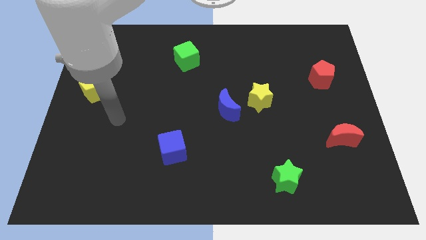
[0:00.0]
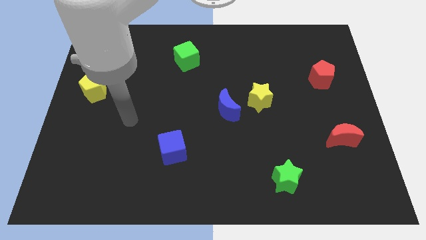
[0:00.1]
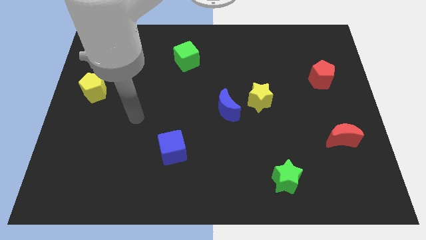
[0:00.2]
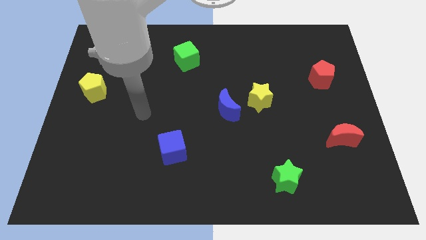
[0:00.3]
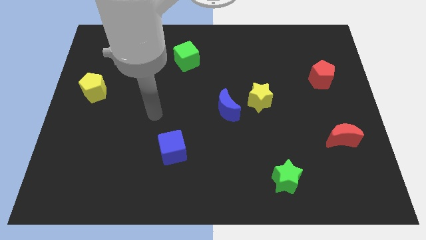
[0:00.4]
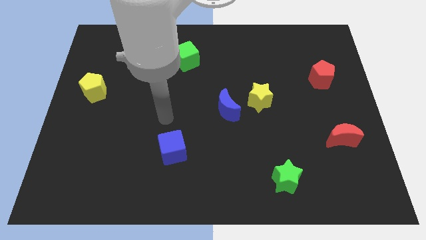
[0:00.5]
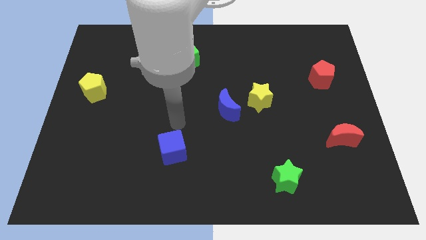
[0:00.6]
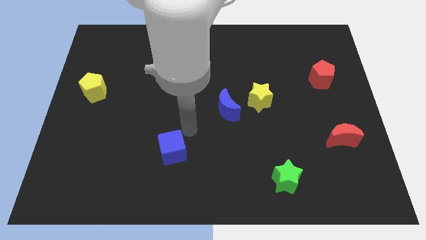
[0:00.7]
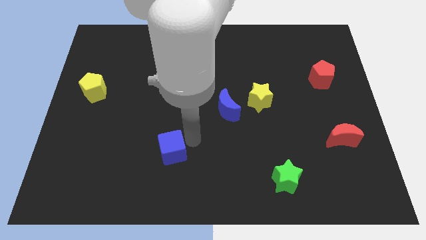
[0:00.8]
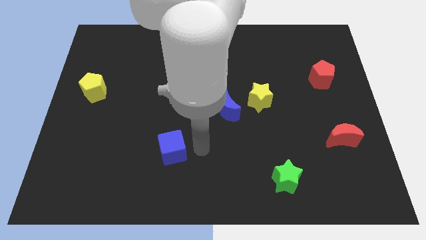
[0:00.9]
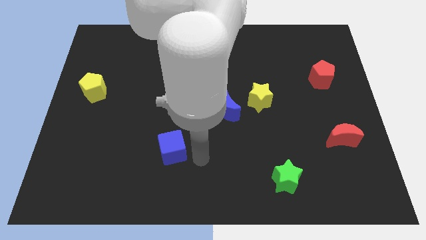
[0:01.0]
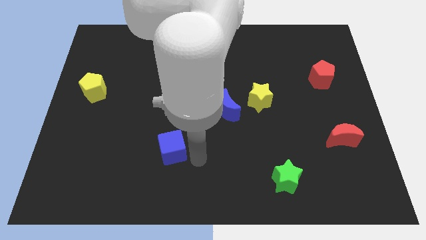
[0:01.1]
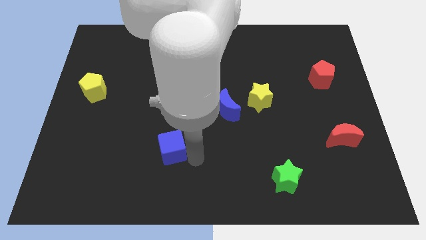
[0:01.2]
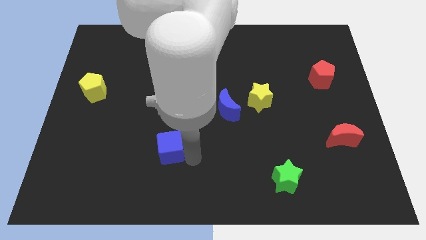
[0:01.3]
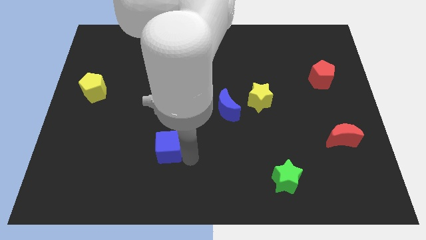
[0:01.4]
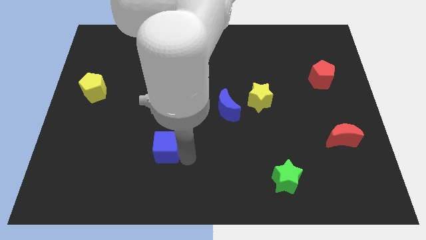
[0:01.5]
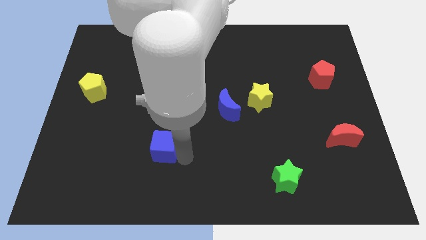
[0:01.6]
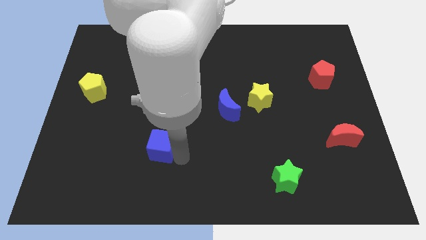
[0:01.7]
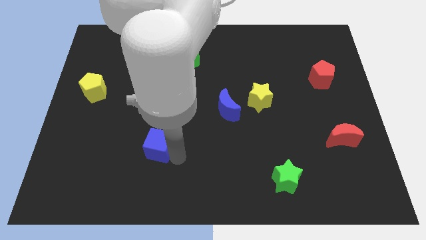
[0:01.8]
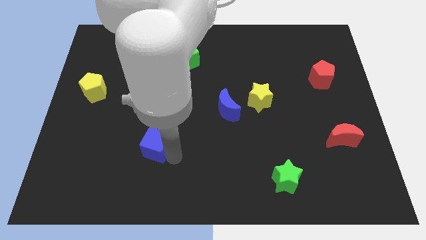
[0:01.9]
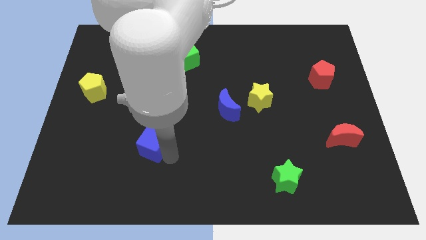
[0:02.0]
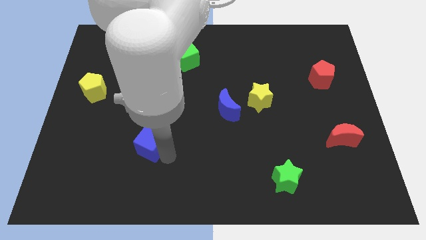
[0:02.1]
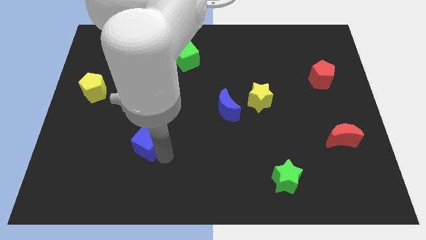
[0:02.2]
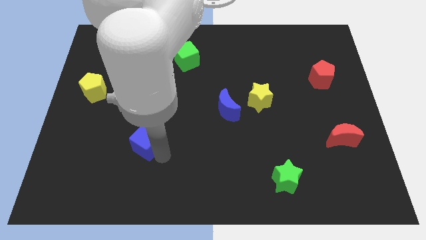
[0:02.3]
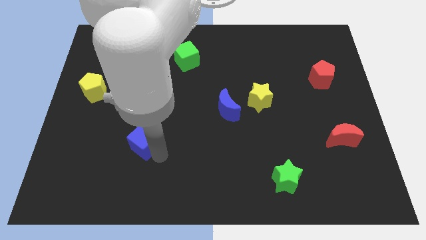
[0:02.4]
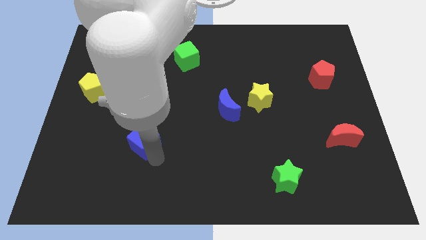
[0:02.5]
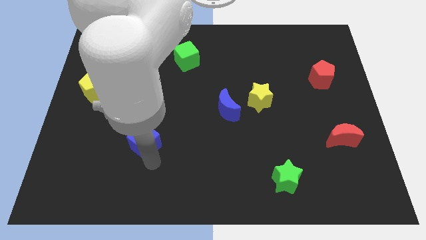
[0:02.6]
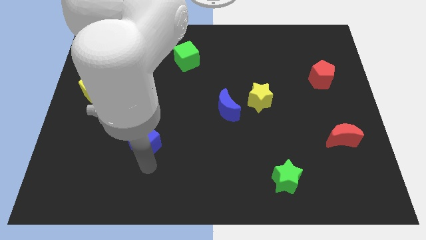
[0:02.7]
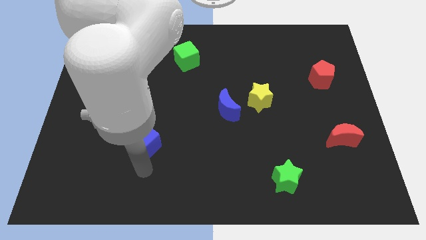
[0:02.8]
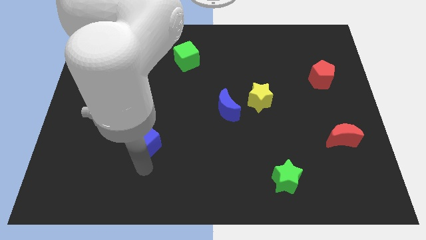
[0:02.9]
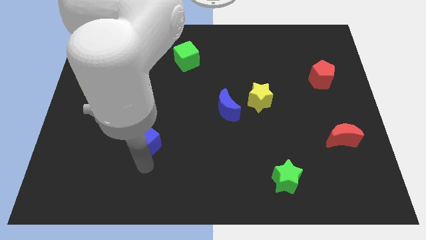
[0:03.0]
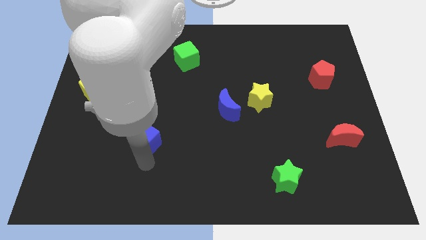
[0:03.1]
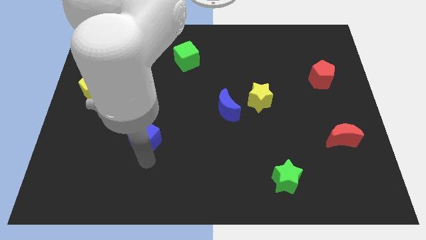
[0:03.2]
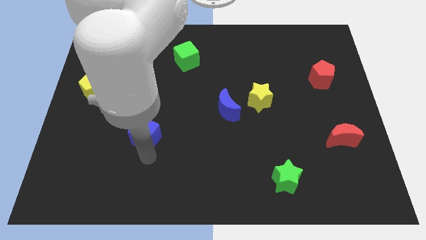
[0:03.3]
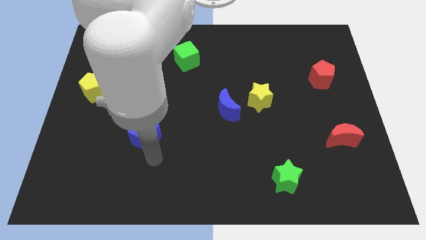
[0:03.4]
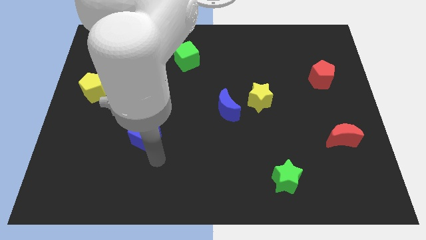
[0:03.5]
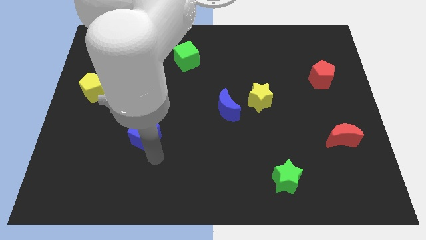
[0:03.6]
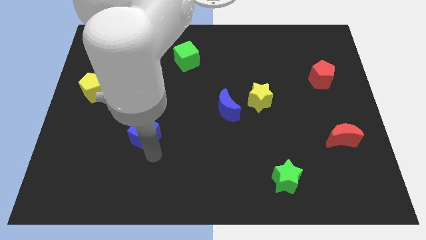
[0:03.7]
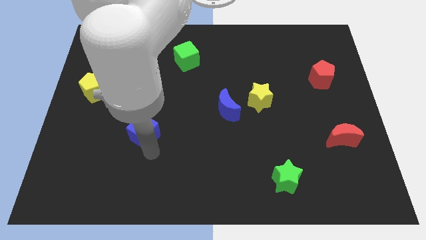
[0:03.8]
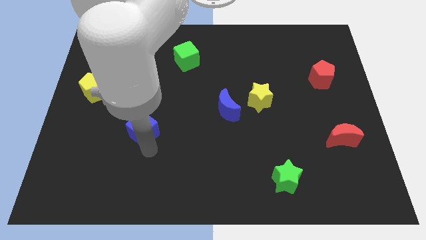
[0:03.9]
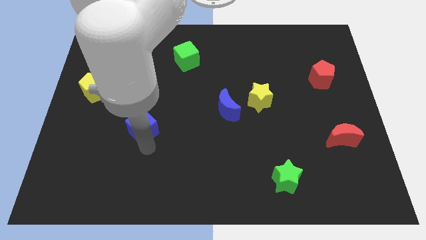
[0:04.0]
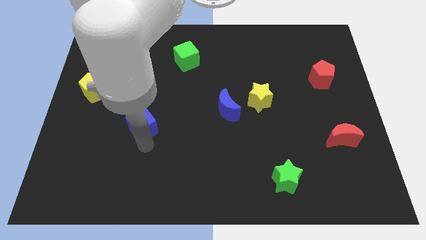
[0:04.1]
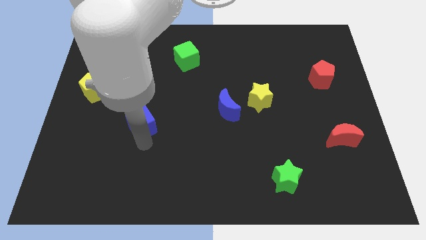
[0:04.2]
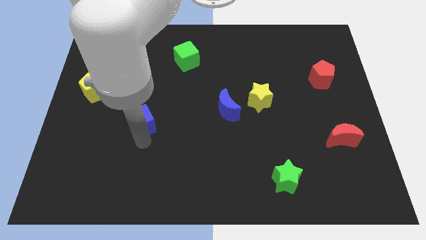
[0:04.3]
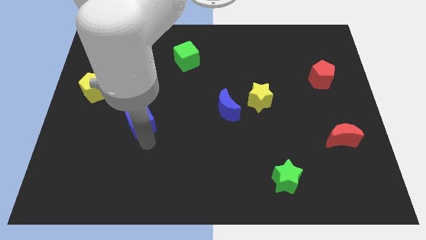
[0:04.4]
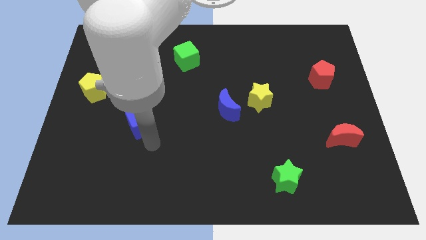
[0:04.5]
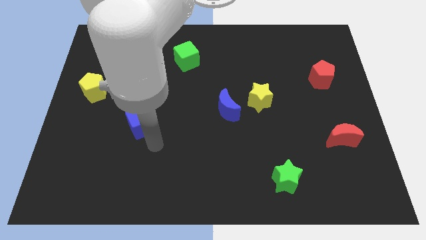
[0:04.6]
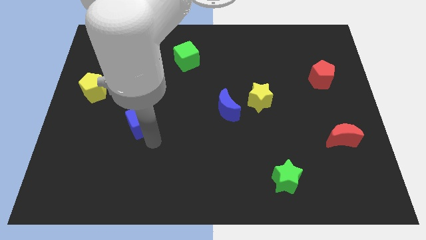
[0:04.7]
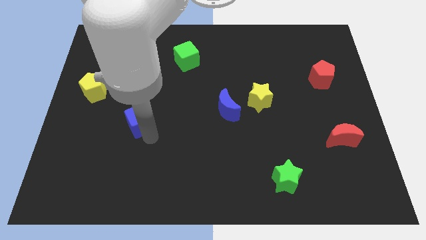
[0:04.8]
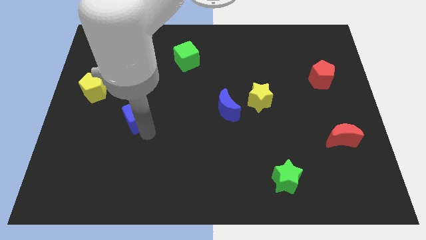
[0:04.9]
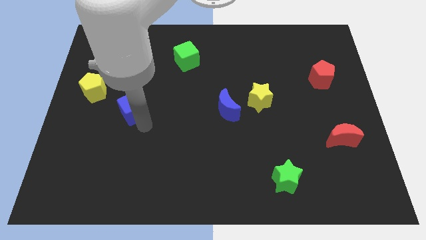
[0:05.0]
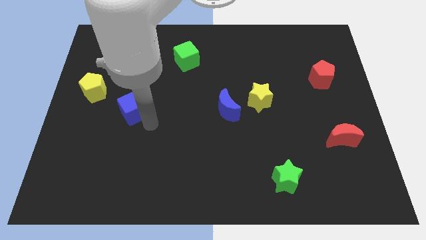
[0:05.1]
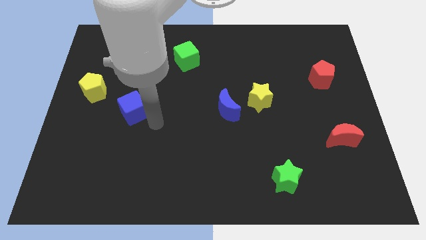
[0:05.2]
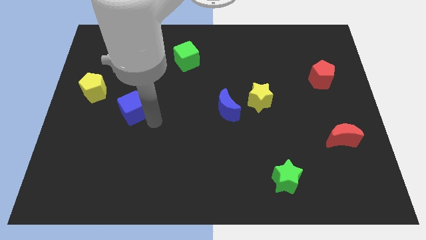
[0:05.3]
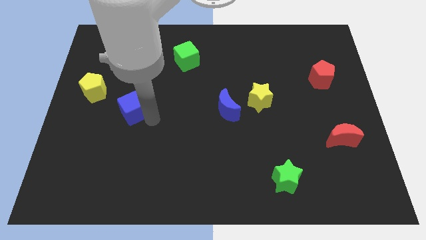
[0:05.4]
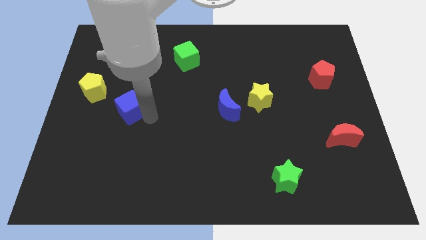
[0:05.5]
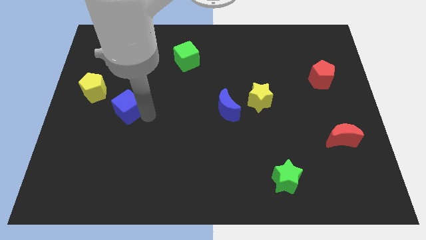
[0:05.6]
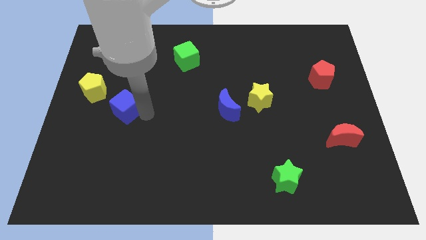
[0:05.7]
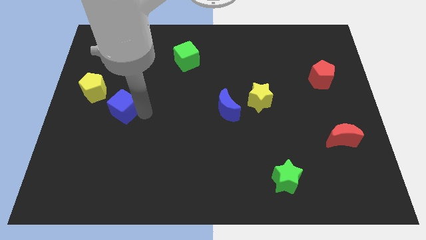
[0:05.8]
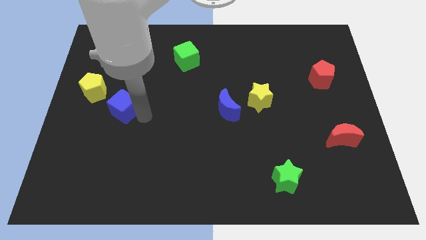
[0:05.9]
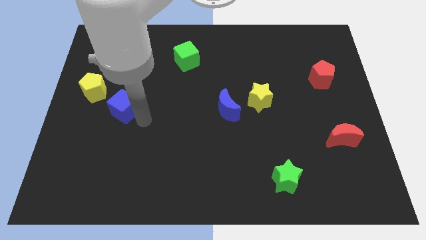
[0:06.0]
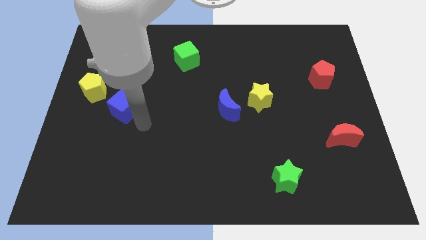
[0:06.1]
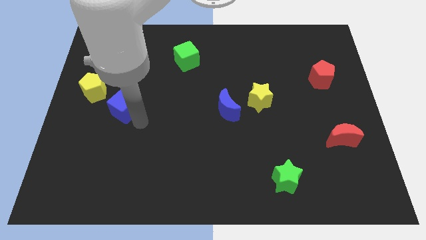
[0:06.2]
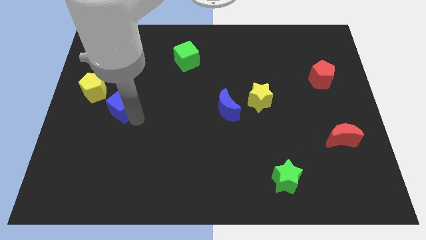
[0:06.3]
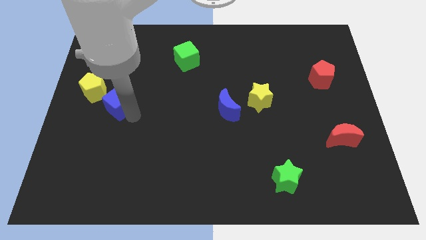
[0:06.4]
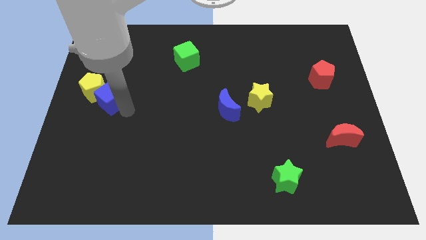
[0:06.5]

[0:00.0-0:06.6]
move the blue cube next to the yellow pentagon

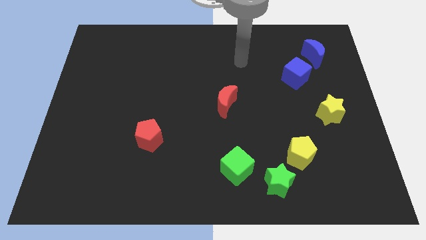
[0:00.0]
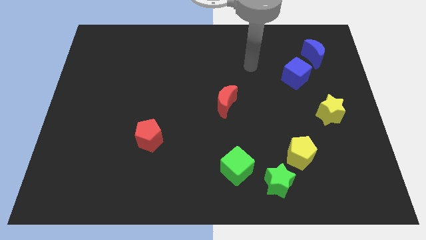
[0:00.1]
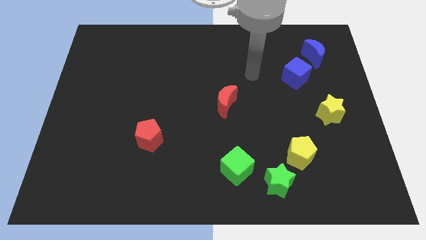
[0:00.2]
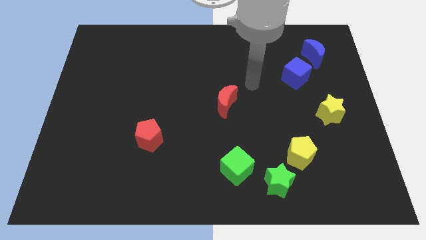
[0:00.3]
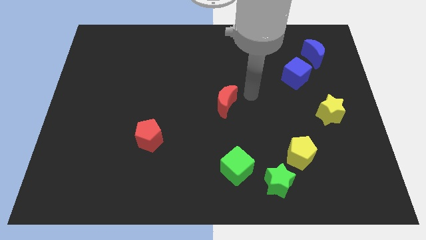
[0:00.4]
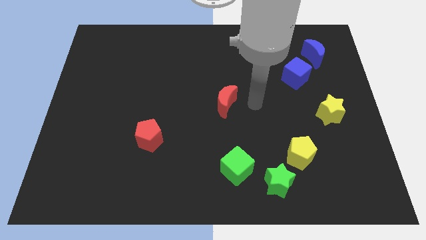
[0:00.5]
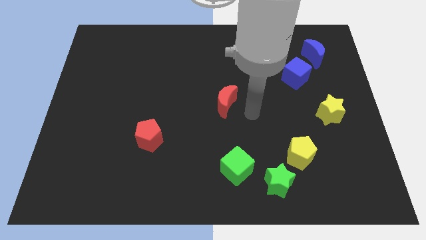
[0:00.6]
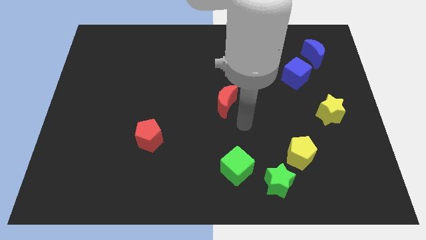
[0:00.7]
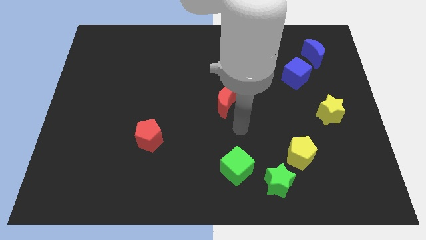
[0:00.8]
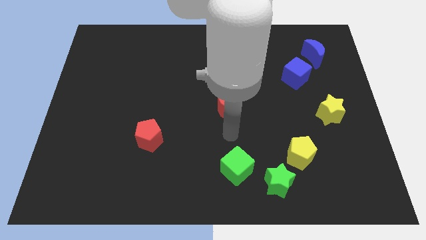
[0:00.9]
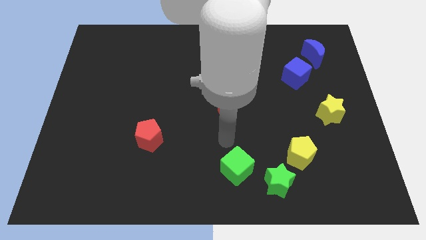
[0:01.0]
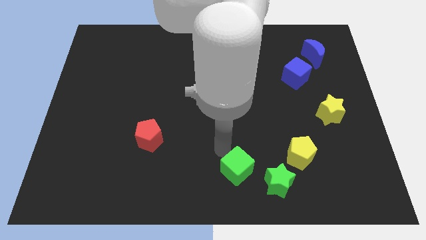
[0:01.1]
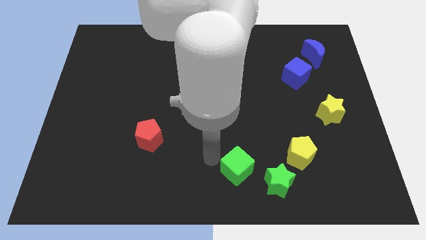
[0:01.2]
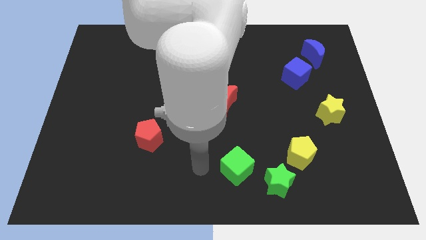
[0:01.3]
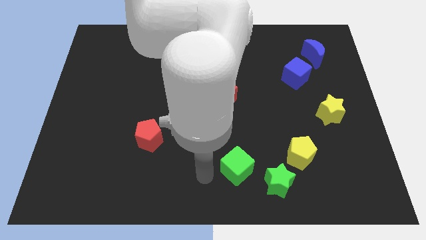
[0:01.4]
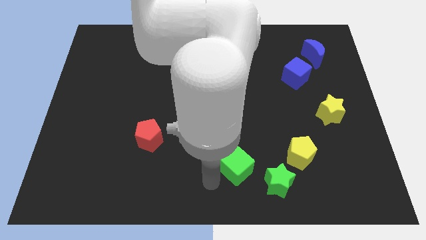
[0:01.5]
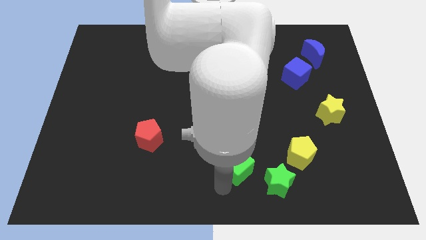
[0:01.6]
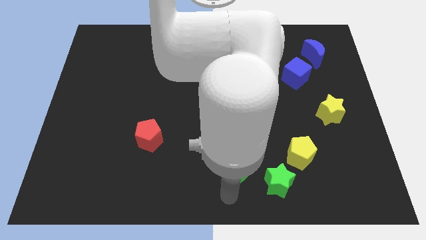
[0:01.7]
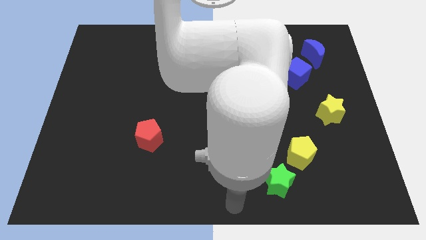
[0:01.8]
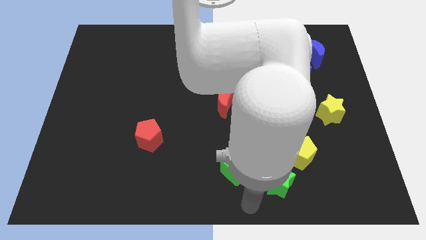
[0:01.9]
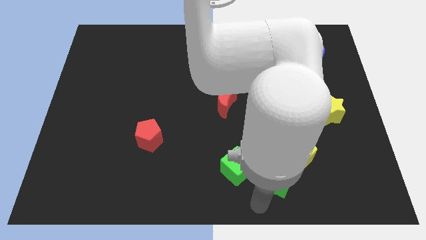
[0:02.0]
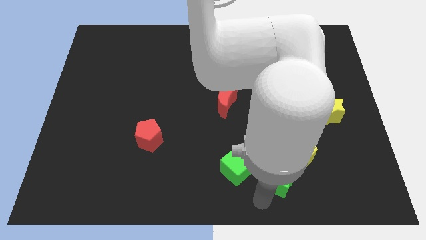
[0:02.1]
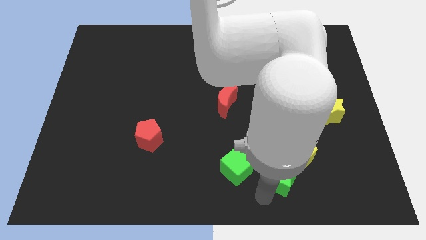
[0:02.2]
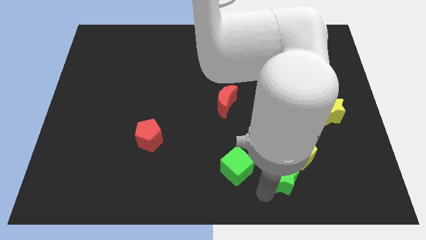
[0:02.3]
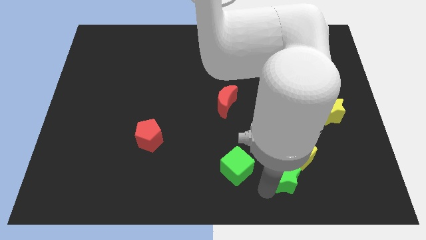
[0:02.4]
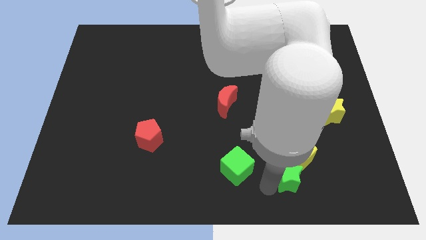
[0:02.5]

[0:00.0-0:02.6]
put the green star next to the yellow pentagon
